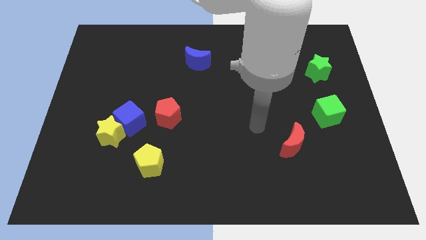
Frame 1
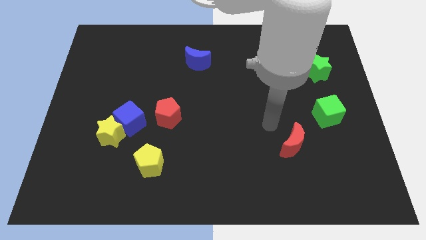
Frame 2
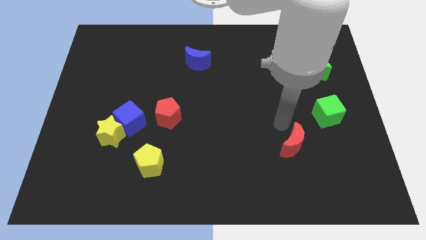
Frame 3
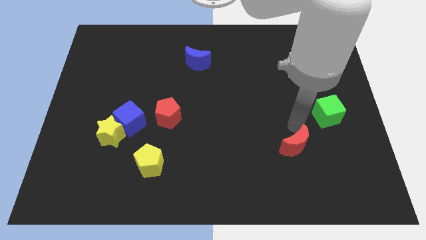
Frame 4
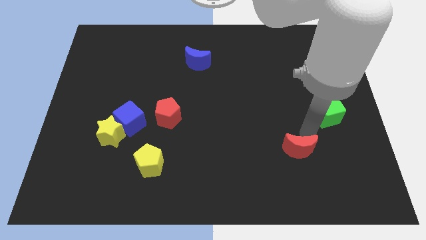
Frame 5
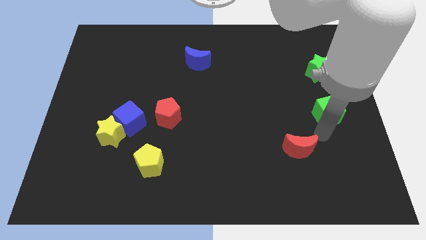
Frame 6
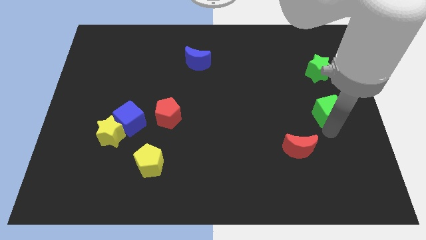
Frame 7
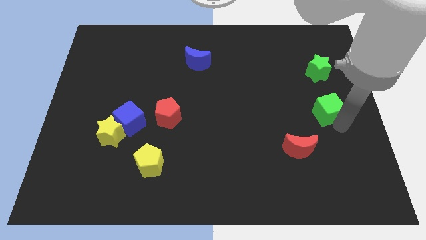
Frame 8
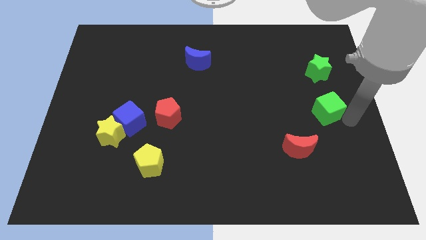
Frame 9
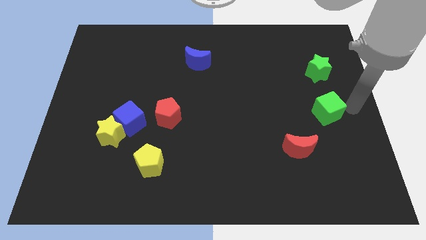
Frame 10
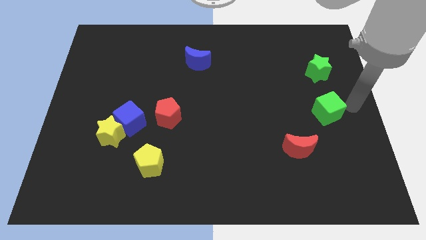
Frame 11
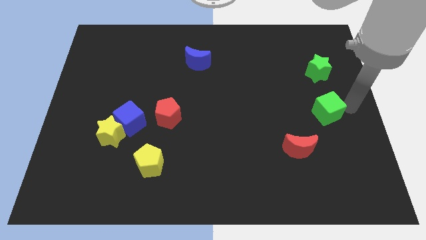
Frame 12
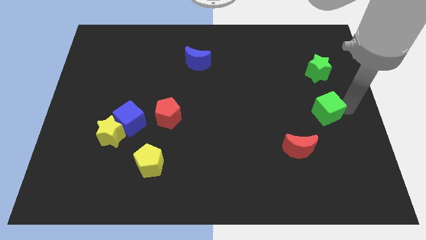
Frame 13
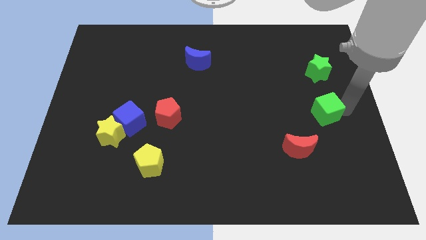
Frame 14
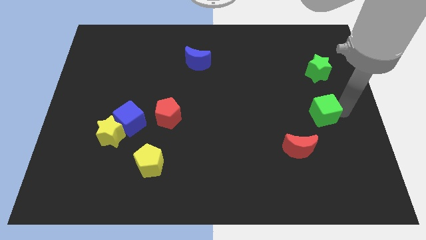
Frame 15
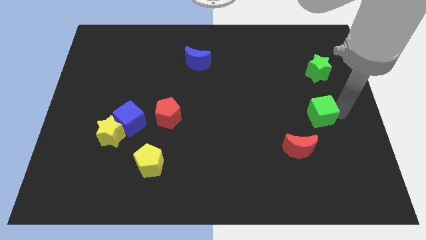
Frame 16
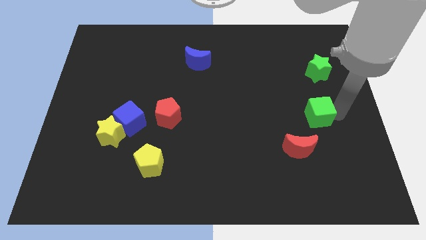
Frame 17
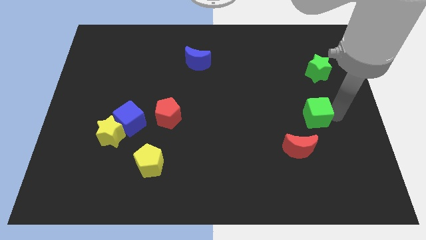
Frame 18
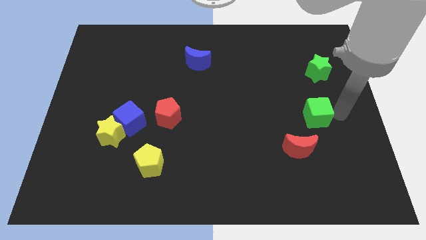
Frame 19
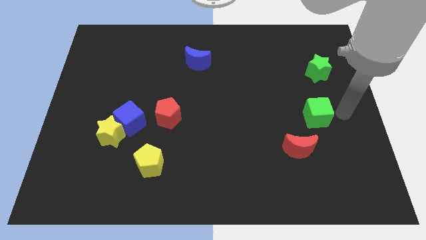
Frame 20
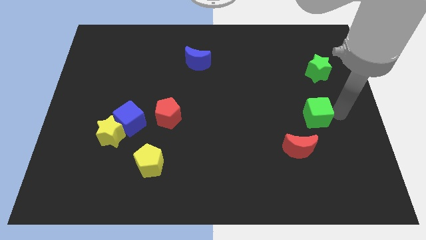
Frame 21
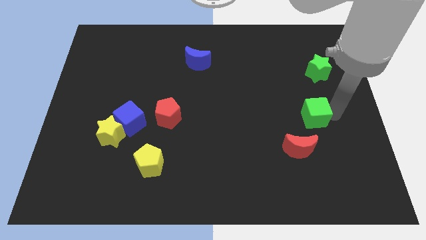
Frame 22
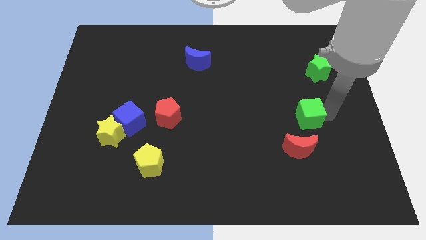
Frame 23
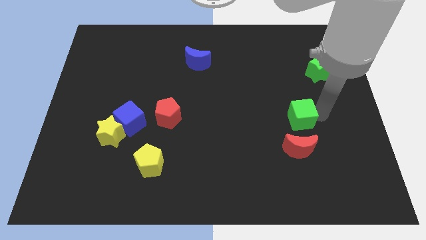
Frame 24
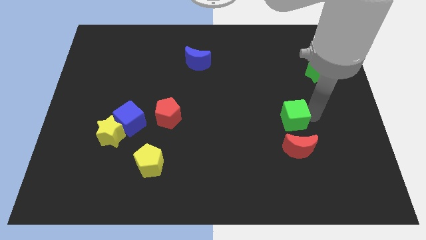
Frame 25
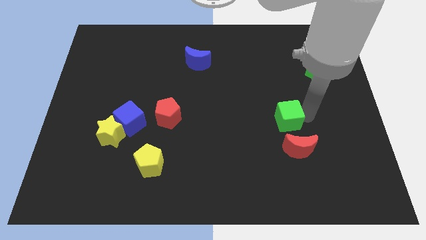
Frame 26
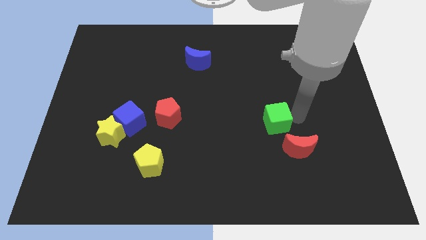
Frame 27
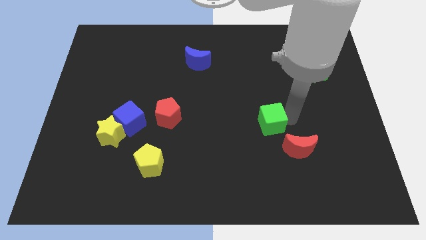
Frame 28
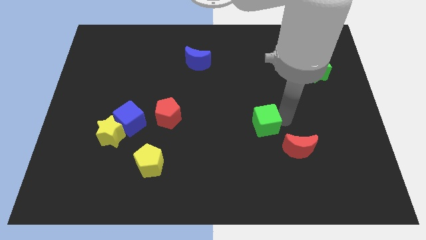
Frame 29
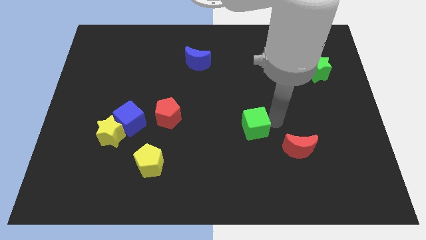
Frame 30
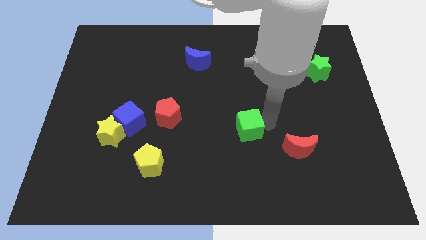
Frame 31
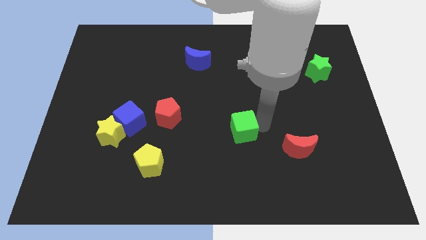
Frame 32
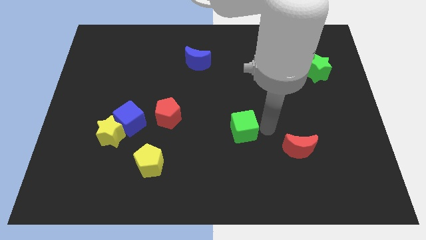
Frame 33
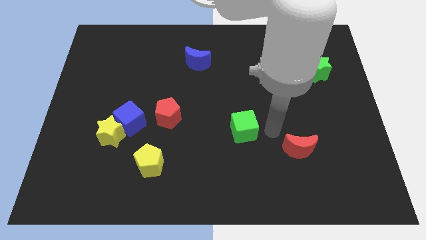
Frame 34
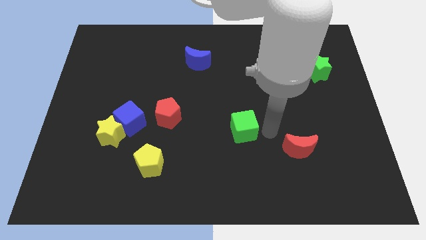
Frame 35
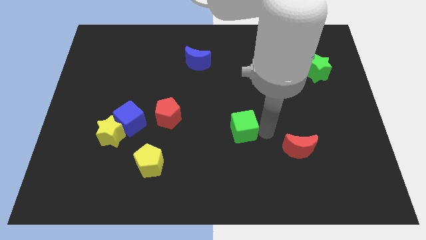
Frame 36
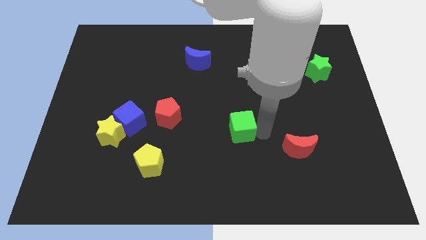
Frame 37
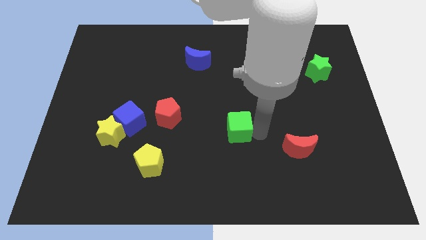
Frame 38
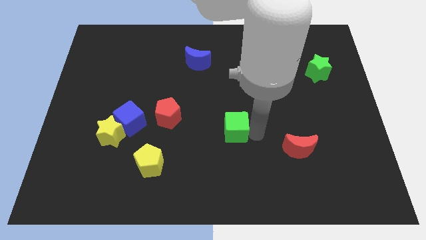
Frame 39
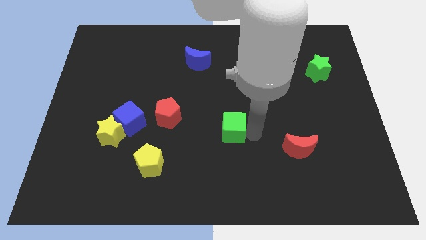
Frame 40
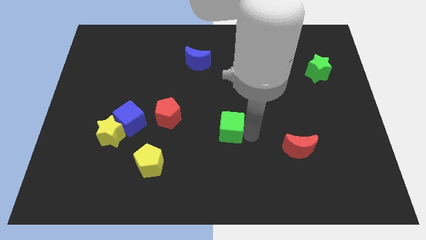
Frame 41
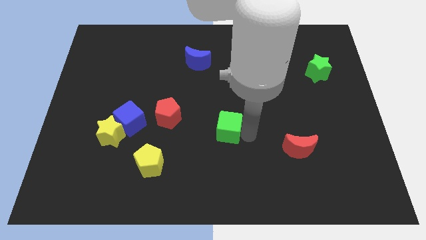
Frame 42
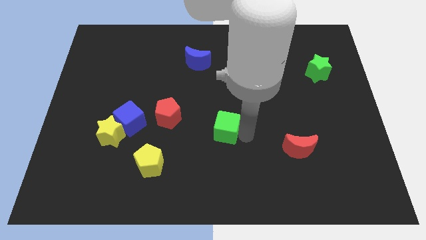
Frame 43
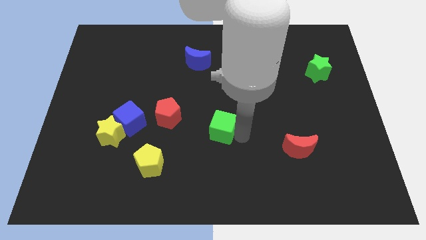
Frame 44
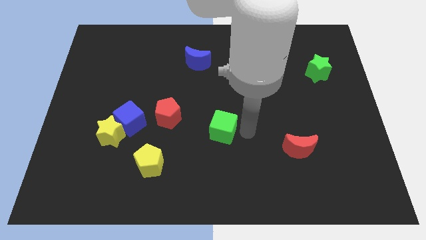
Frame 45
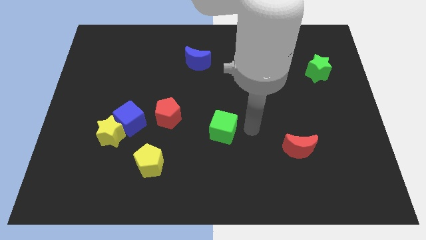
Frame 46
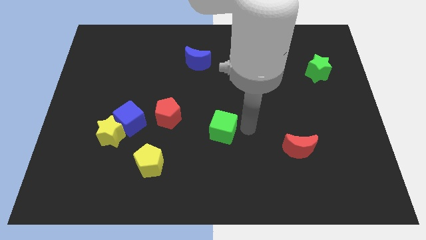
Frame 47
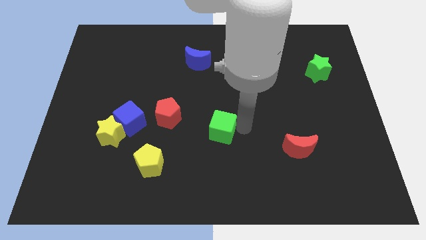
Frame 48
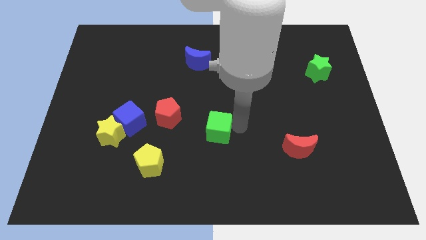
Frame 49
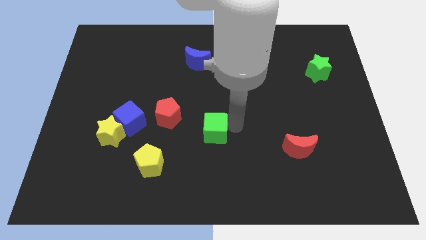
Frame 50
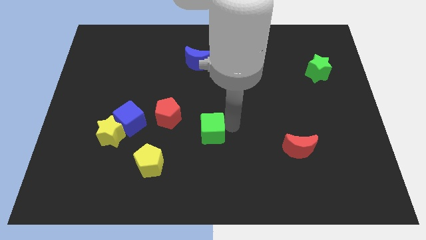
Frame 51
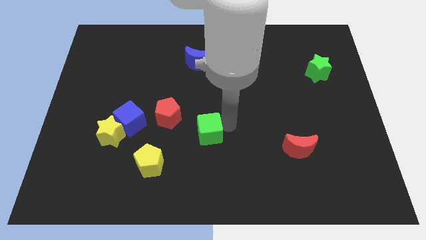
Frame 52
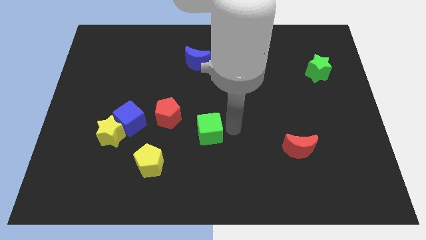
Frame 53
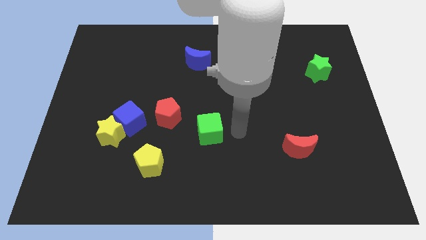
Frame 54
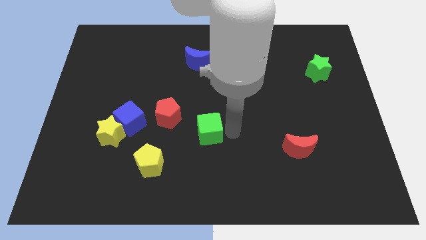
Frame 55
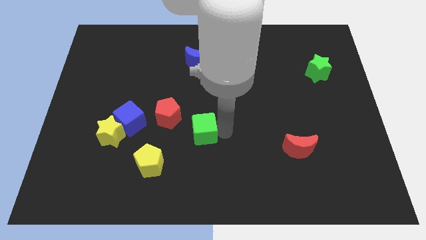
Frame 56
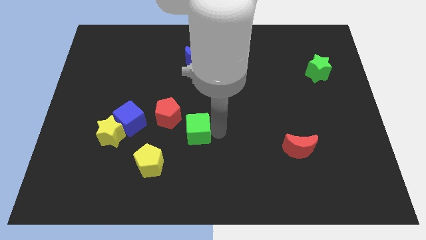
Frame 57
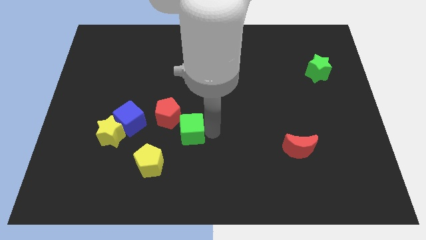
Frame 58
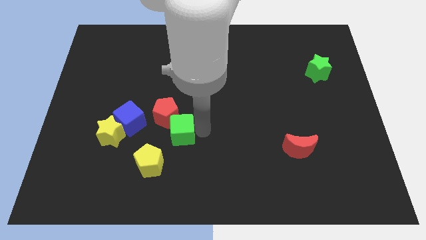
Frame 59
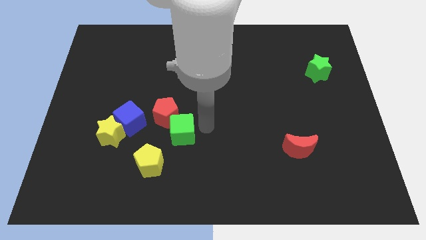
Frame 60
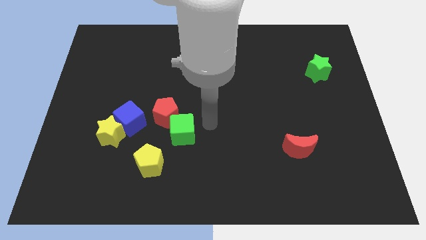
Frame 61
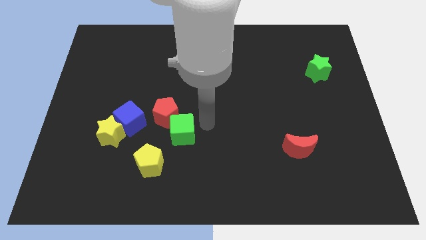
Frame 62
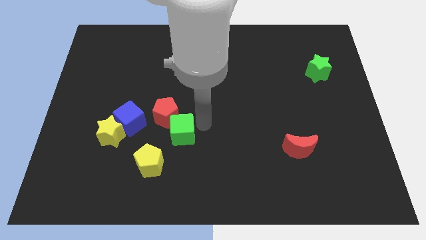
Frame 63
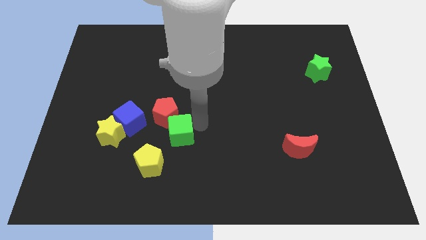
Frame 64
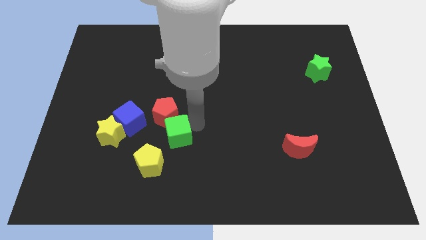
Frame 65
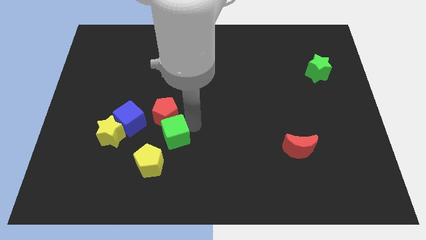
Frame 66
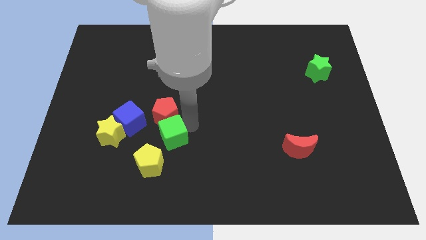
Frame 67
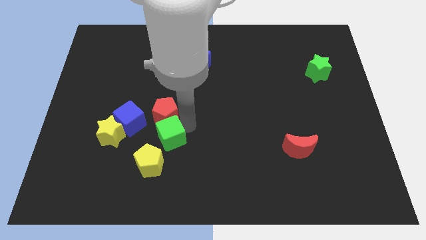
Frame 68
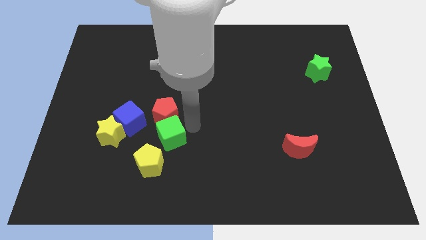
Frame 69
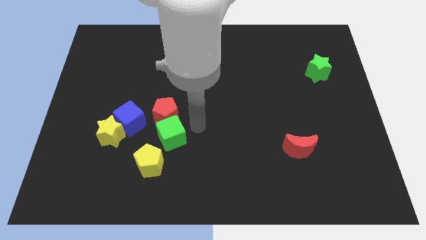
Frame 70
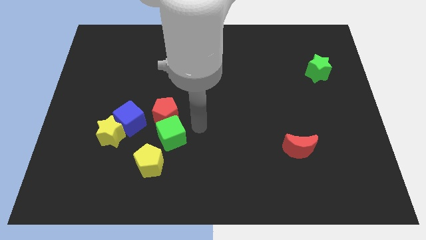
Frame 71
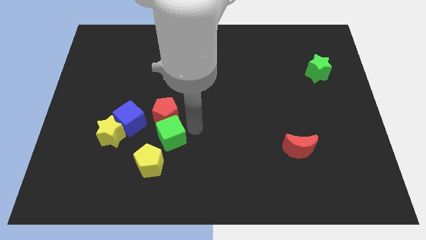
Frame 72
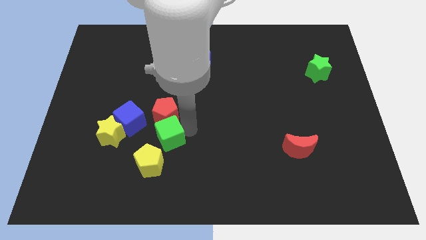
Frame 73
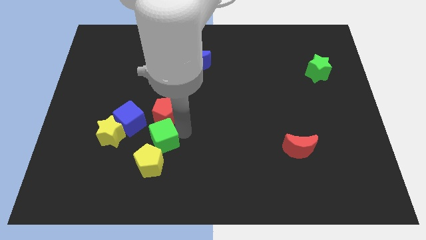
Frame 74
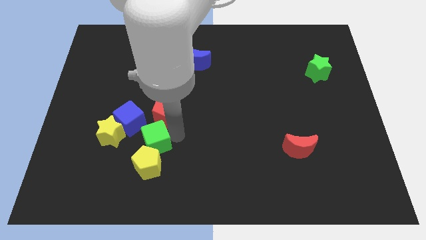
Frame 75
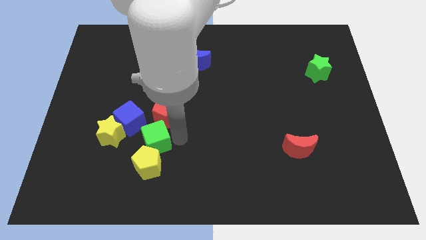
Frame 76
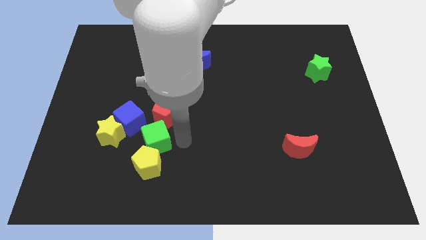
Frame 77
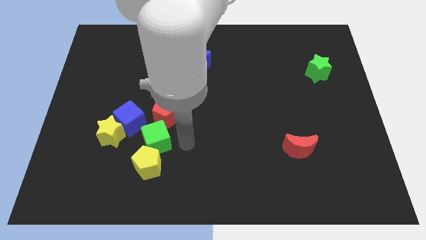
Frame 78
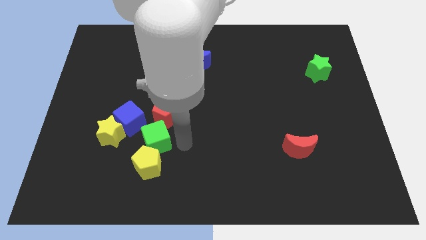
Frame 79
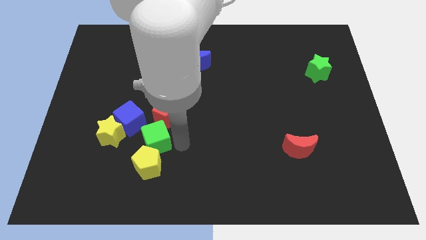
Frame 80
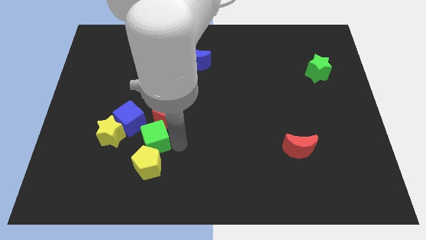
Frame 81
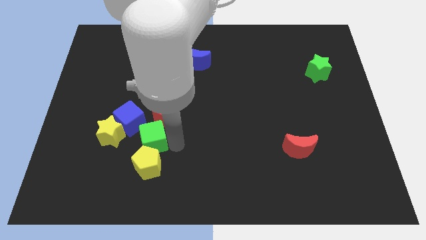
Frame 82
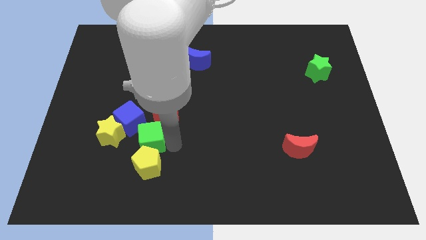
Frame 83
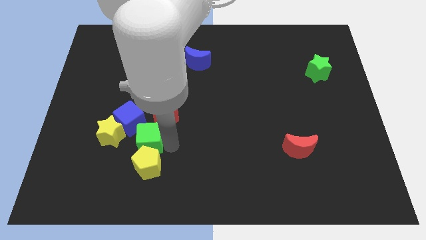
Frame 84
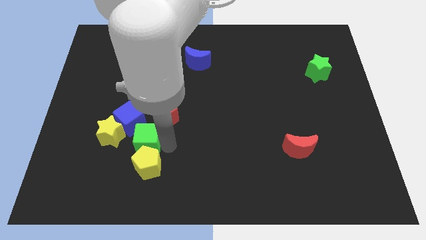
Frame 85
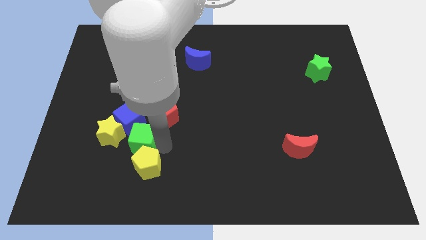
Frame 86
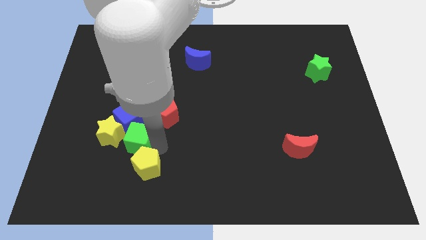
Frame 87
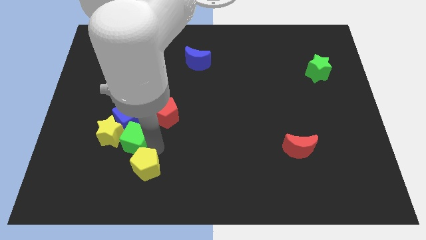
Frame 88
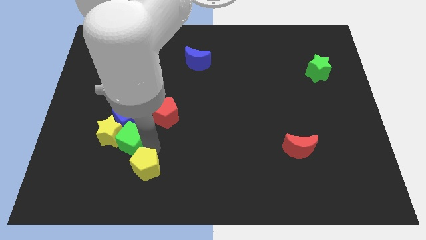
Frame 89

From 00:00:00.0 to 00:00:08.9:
move the green cube to the yellow star
